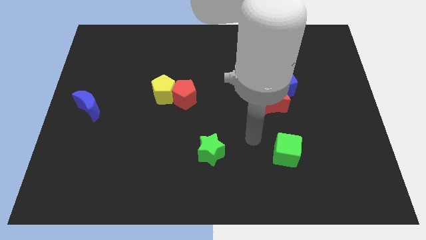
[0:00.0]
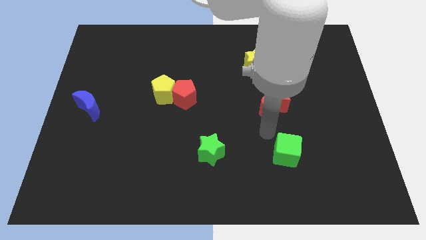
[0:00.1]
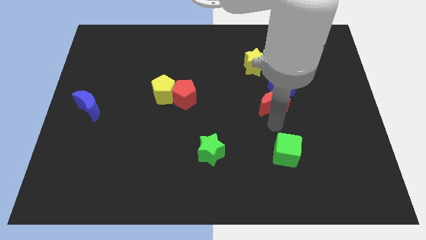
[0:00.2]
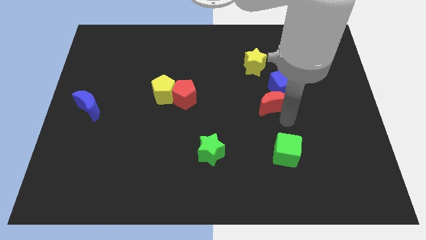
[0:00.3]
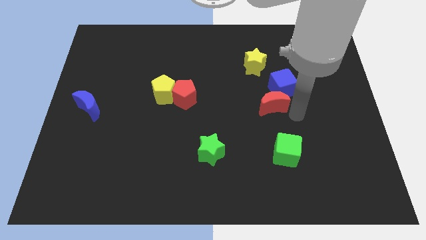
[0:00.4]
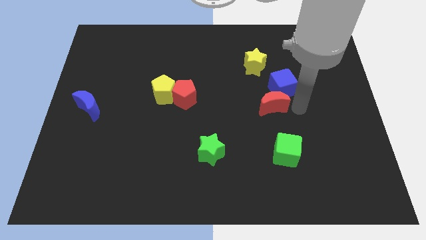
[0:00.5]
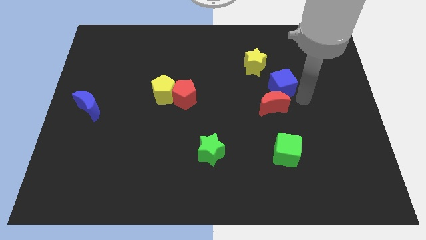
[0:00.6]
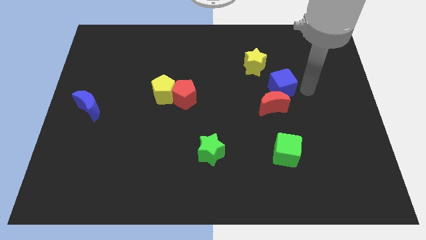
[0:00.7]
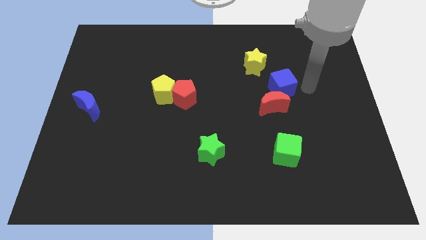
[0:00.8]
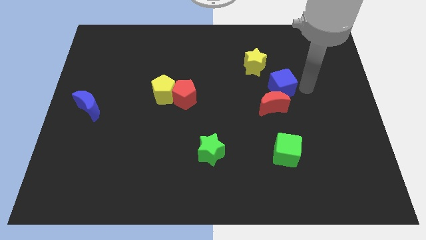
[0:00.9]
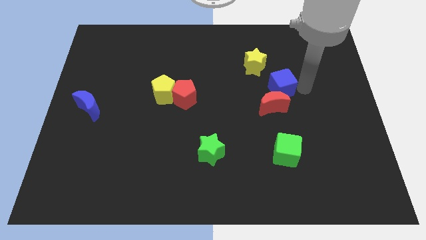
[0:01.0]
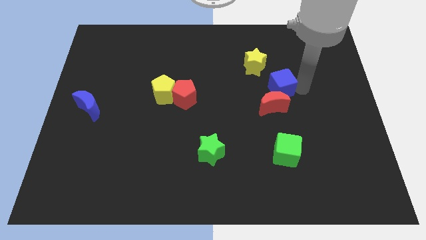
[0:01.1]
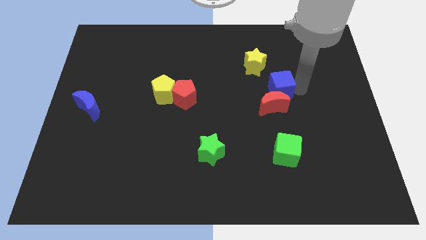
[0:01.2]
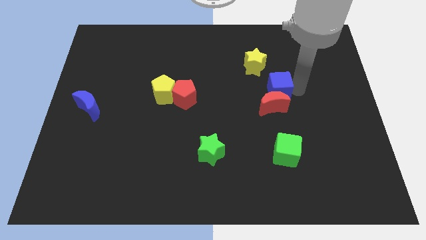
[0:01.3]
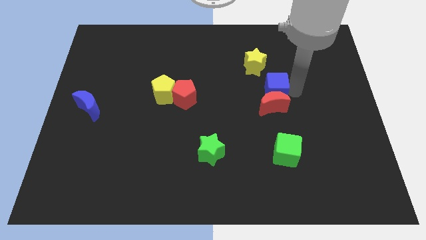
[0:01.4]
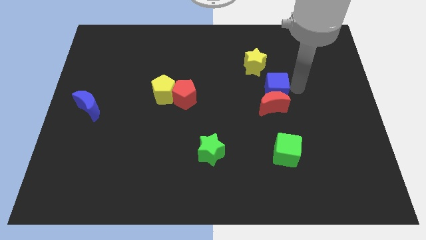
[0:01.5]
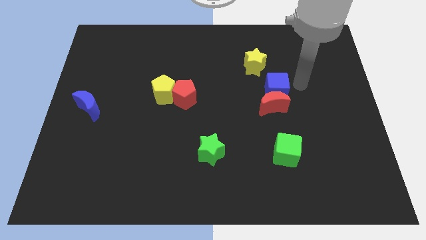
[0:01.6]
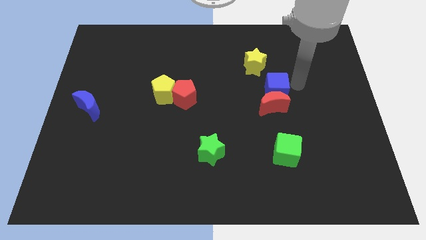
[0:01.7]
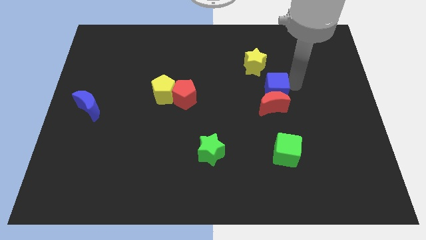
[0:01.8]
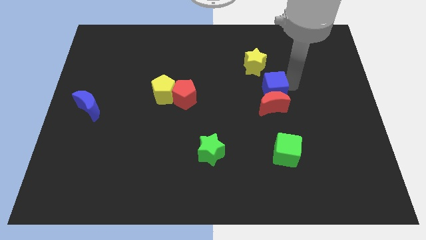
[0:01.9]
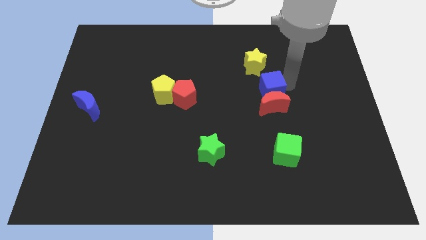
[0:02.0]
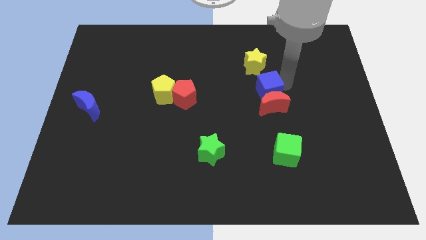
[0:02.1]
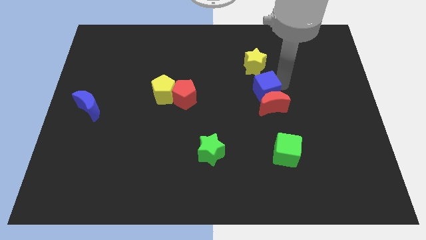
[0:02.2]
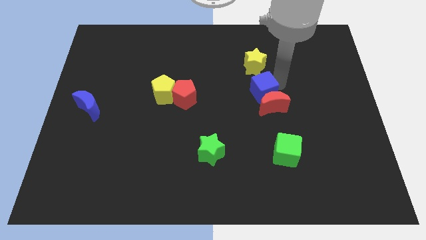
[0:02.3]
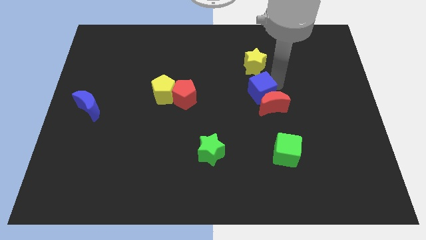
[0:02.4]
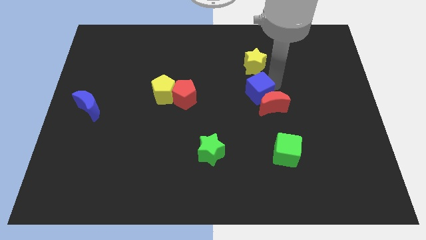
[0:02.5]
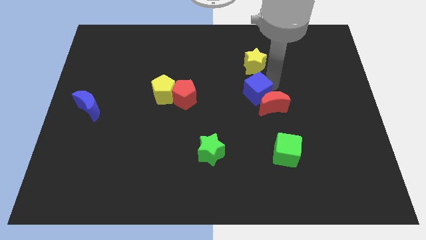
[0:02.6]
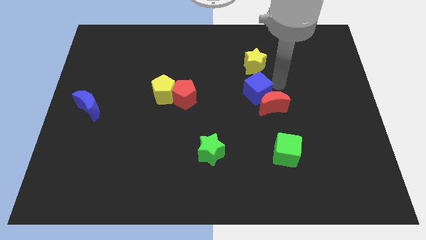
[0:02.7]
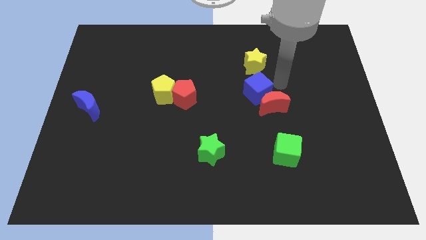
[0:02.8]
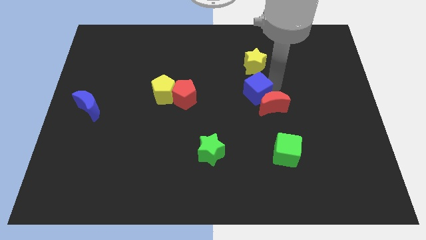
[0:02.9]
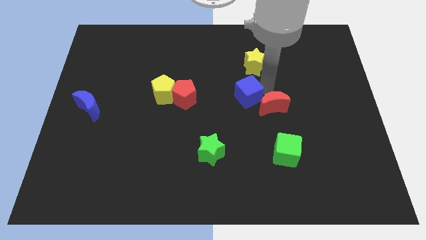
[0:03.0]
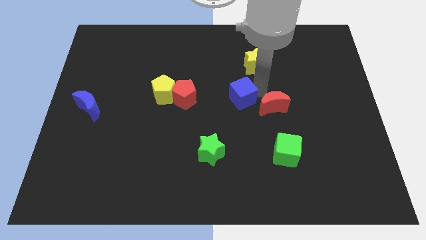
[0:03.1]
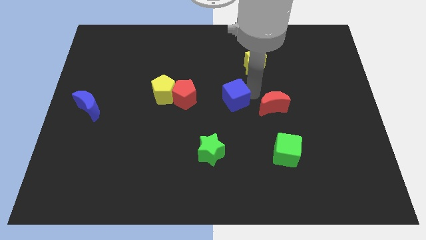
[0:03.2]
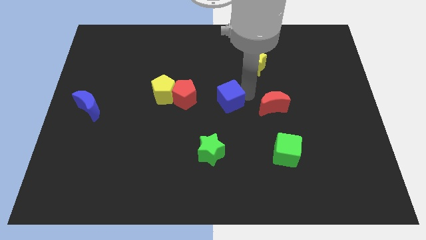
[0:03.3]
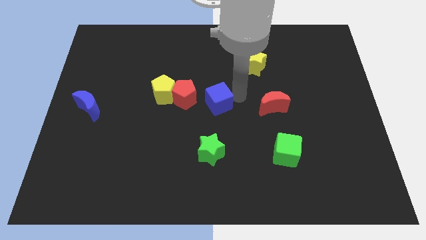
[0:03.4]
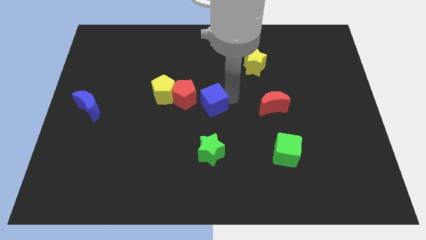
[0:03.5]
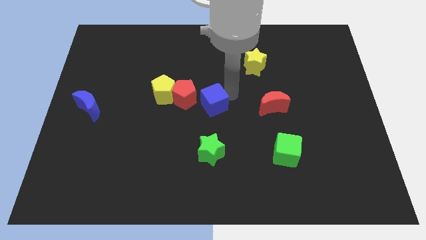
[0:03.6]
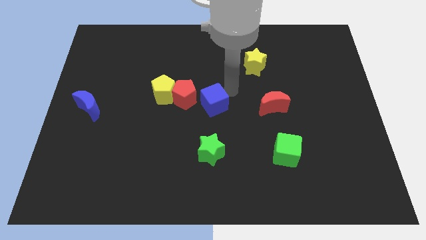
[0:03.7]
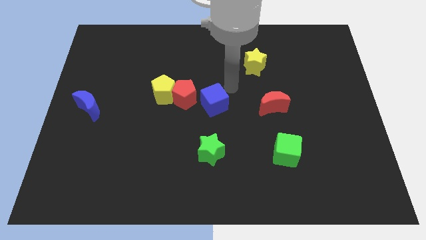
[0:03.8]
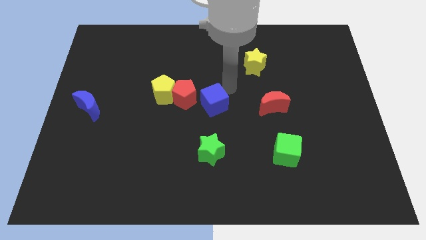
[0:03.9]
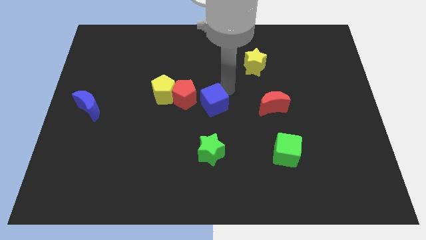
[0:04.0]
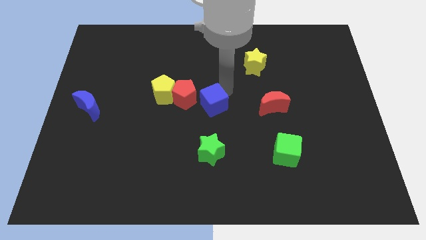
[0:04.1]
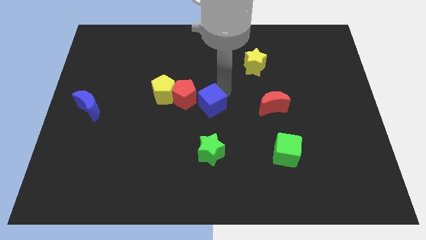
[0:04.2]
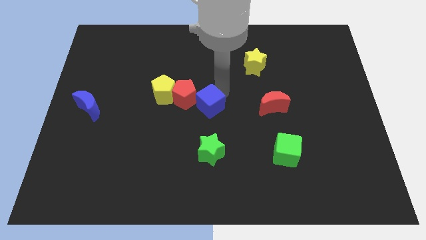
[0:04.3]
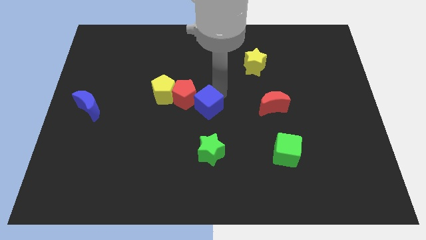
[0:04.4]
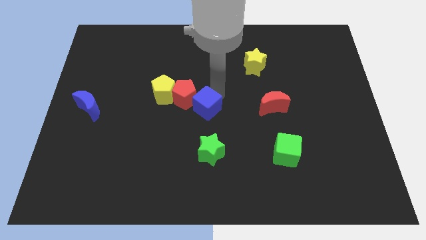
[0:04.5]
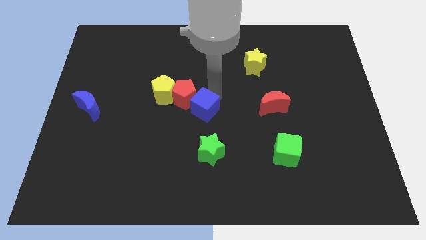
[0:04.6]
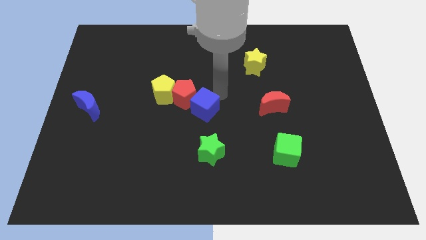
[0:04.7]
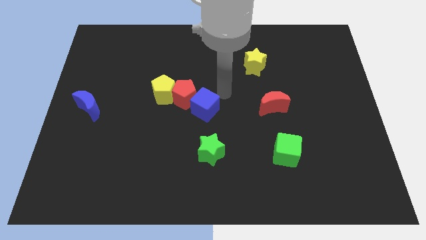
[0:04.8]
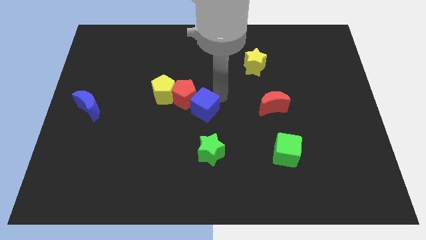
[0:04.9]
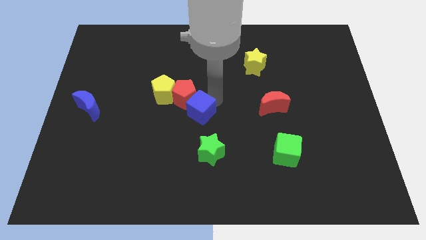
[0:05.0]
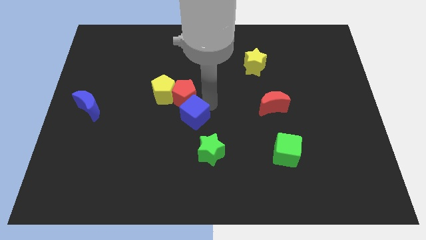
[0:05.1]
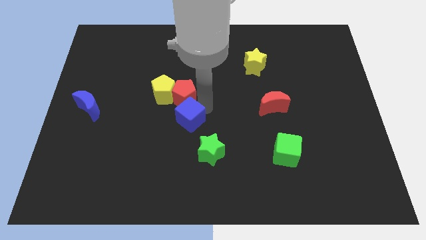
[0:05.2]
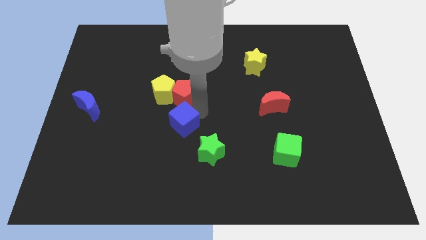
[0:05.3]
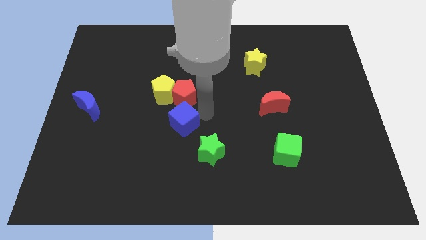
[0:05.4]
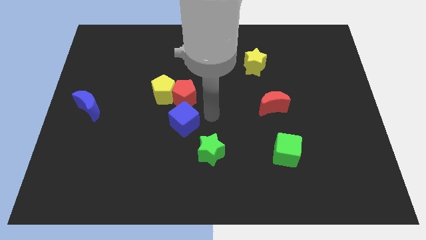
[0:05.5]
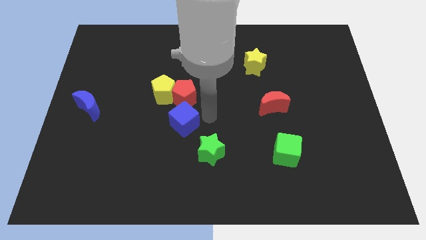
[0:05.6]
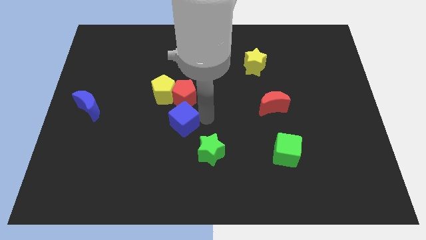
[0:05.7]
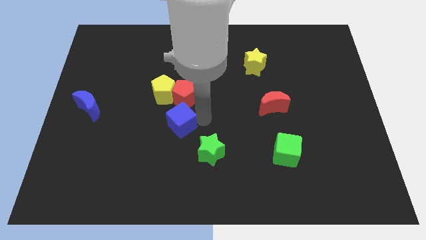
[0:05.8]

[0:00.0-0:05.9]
slide the blue cube below the yellow pentagon
